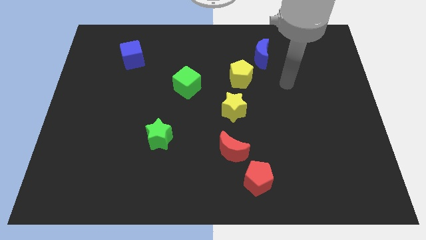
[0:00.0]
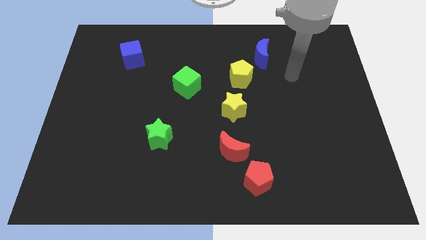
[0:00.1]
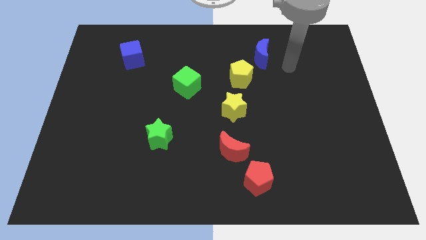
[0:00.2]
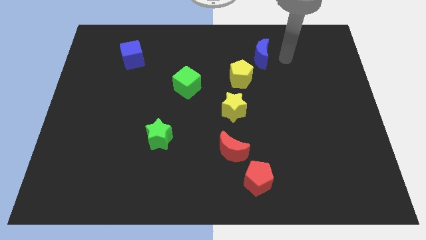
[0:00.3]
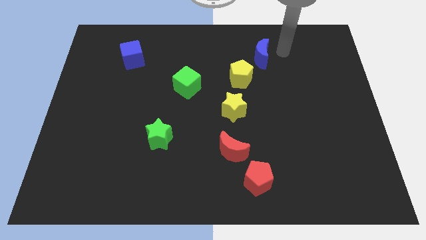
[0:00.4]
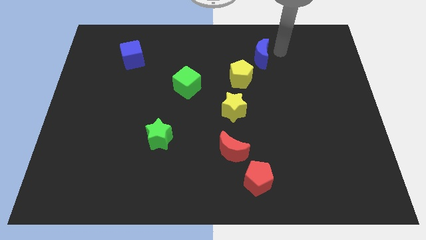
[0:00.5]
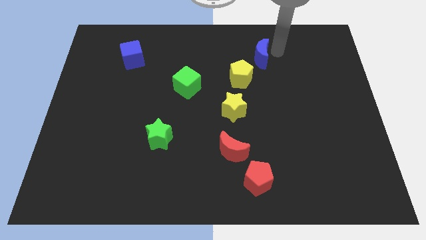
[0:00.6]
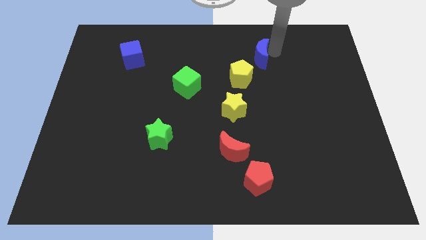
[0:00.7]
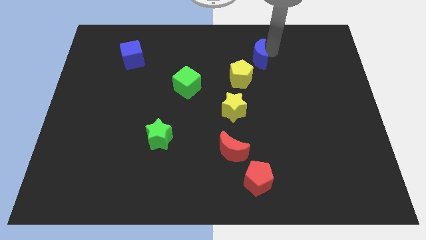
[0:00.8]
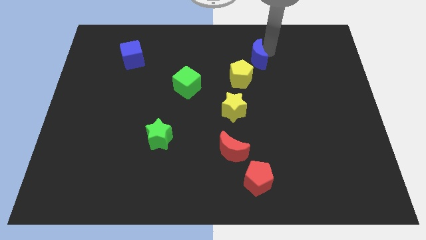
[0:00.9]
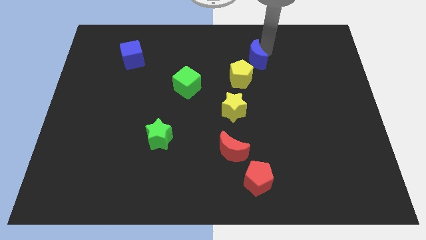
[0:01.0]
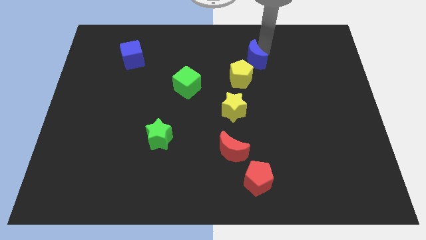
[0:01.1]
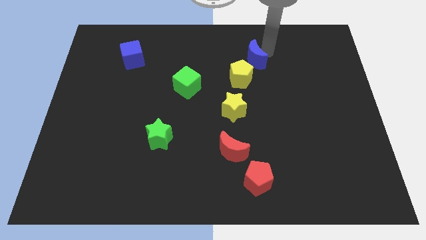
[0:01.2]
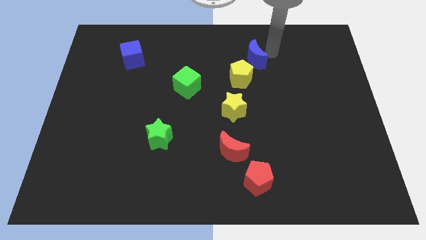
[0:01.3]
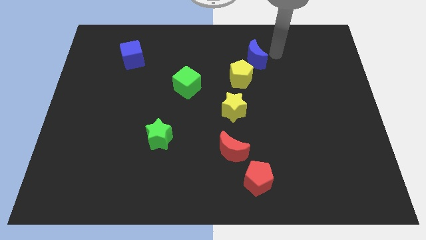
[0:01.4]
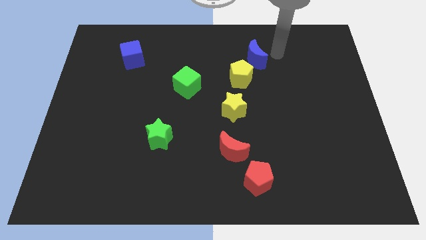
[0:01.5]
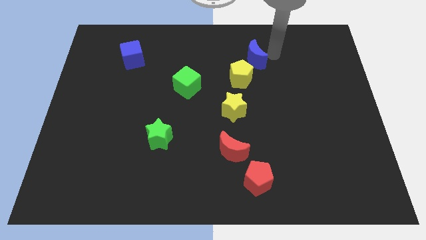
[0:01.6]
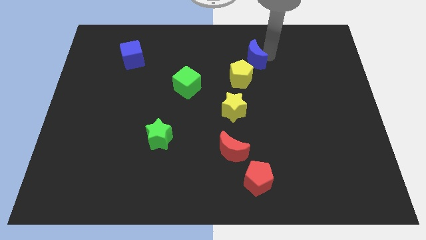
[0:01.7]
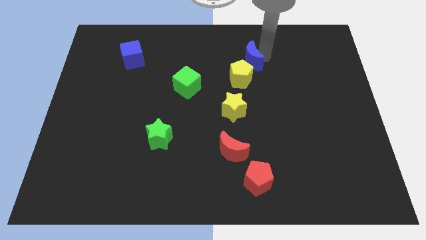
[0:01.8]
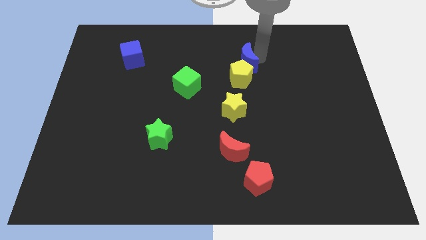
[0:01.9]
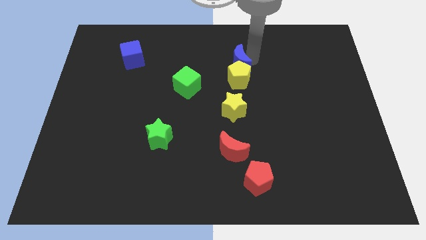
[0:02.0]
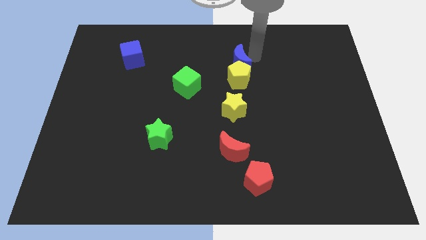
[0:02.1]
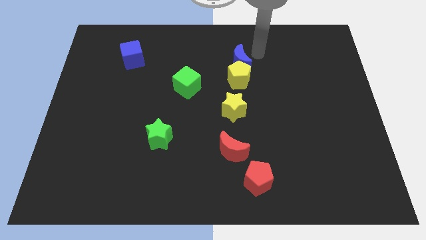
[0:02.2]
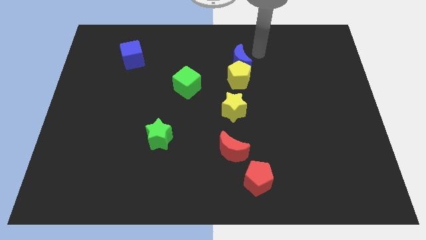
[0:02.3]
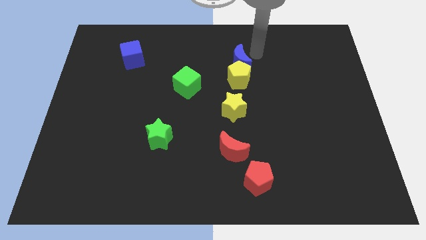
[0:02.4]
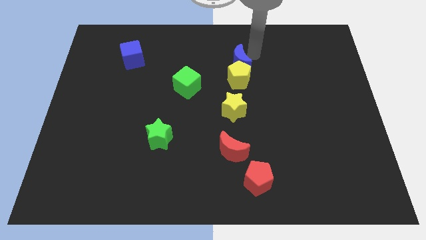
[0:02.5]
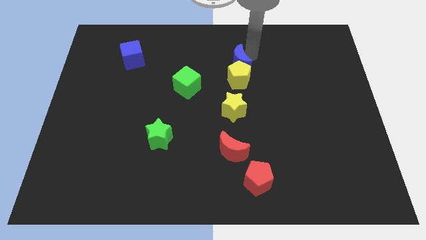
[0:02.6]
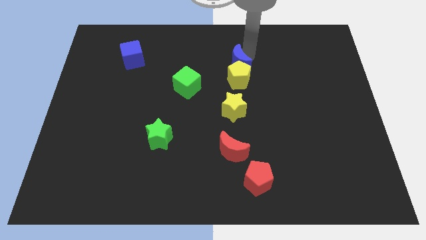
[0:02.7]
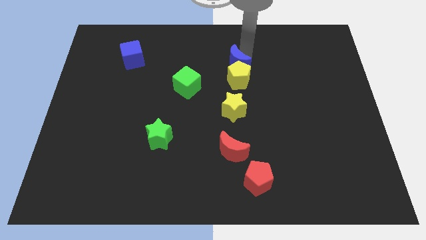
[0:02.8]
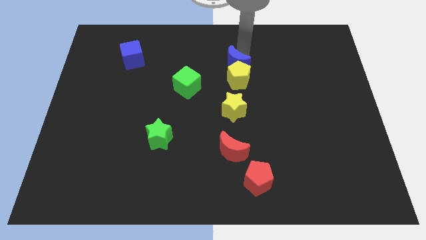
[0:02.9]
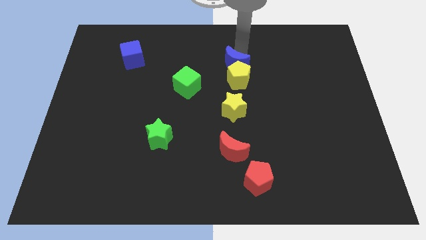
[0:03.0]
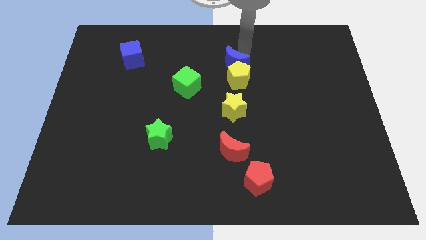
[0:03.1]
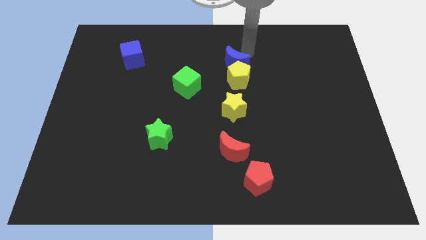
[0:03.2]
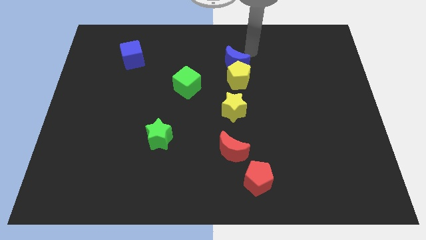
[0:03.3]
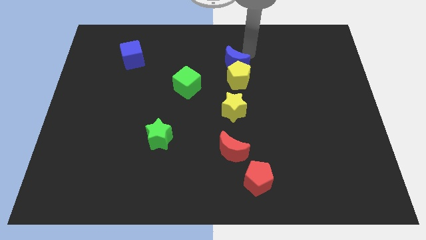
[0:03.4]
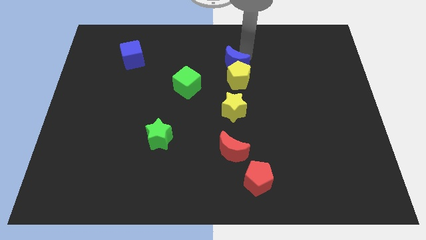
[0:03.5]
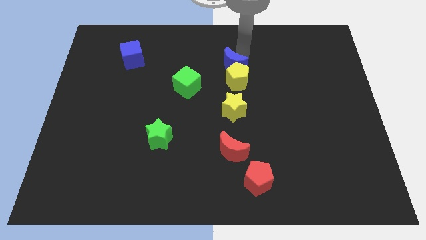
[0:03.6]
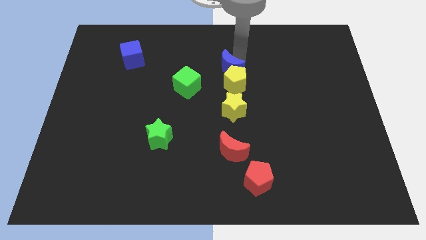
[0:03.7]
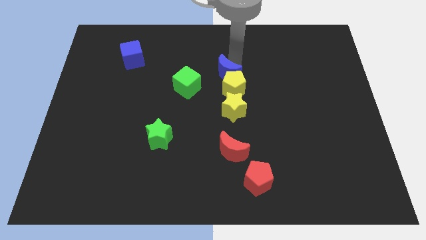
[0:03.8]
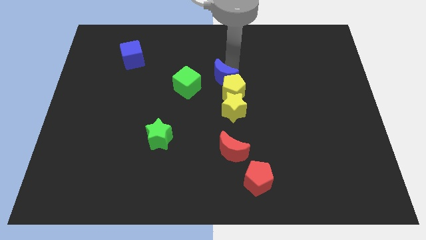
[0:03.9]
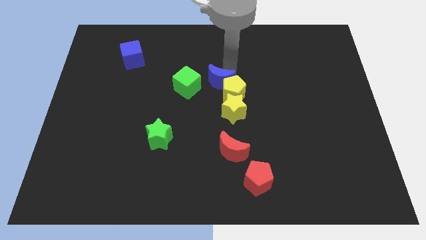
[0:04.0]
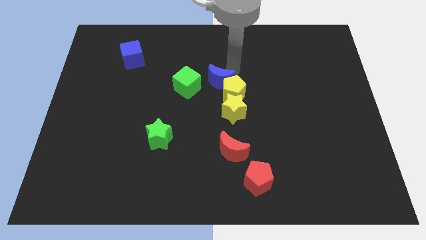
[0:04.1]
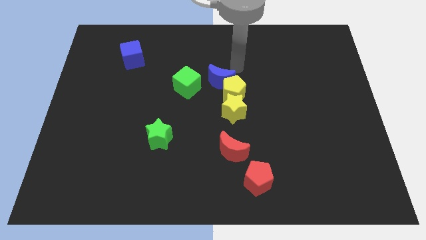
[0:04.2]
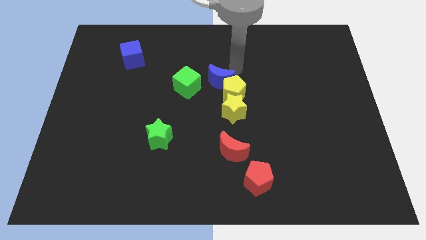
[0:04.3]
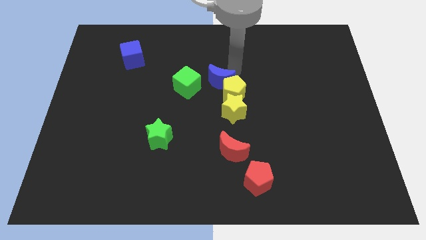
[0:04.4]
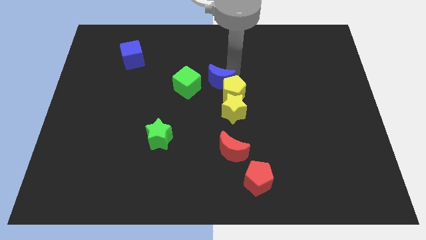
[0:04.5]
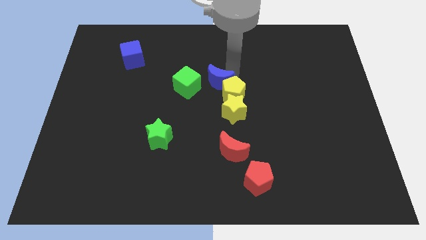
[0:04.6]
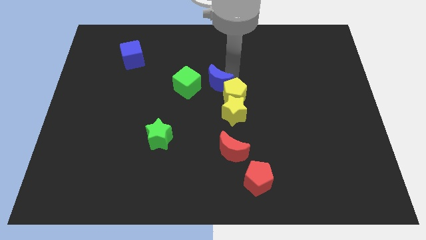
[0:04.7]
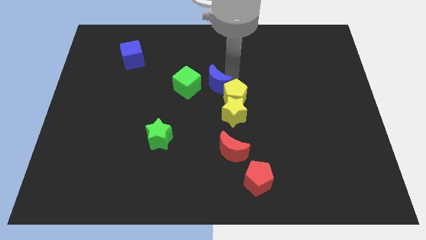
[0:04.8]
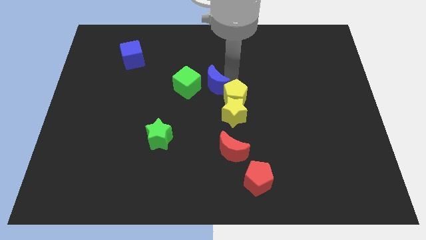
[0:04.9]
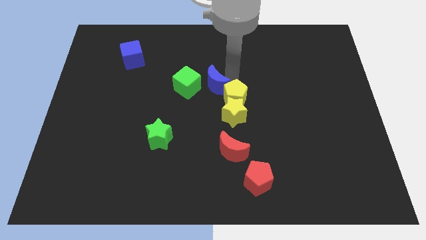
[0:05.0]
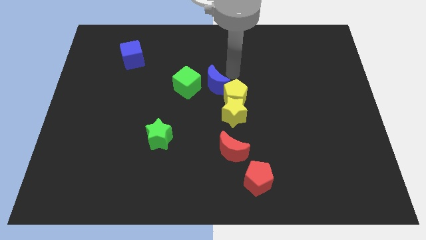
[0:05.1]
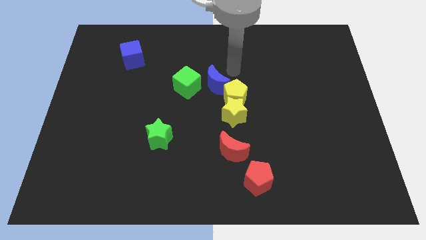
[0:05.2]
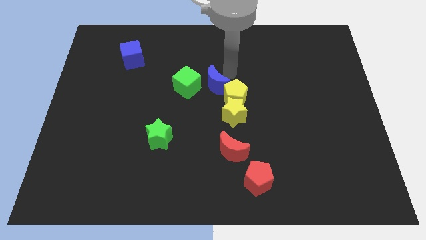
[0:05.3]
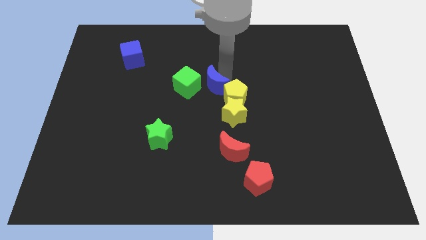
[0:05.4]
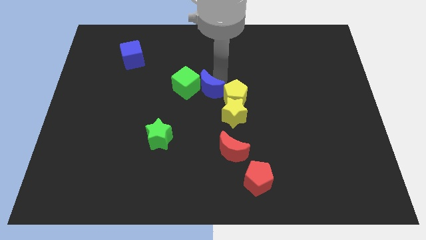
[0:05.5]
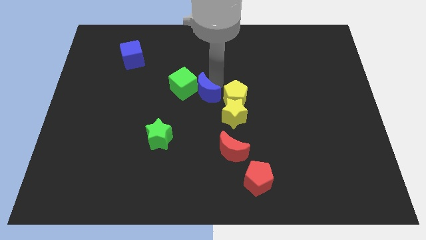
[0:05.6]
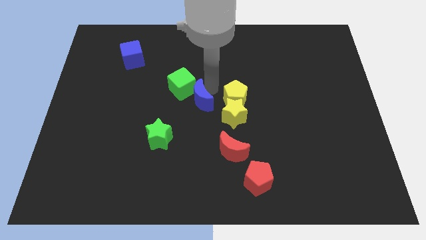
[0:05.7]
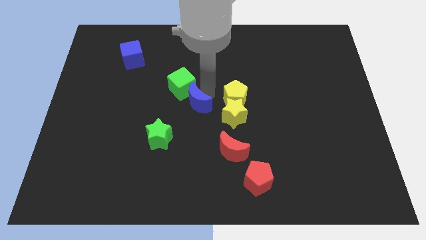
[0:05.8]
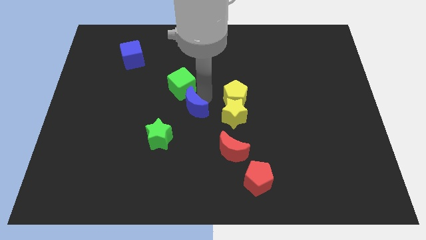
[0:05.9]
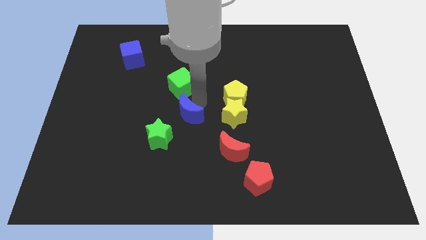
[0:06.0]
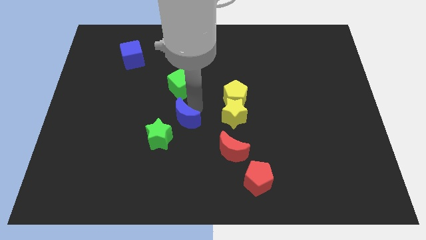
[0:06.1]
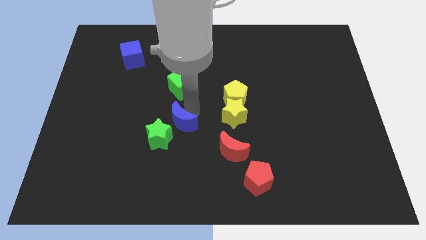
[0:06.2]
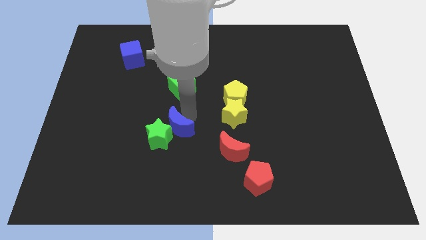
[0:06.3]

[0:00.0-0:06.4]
push the blue moon towards the green star
